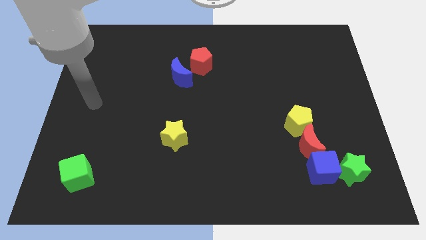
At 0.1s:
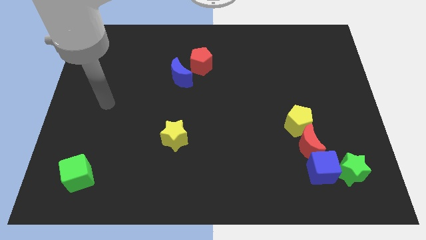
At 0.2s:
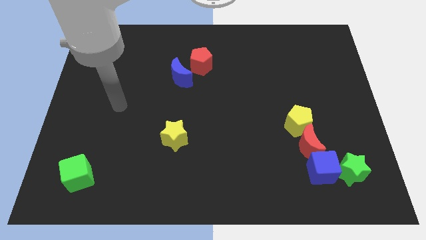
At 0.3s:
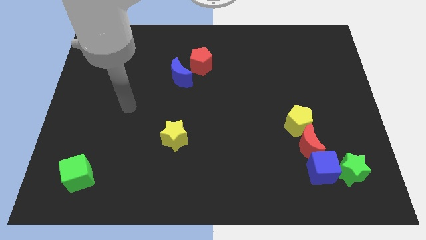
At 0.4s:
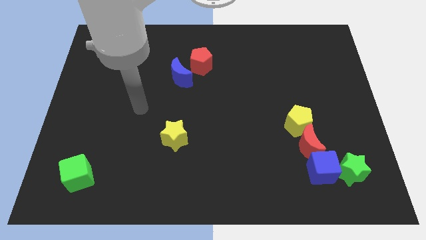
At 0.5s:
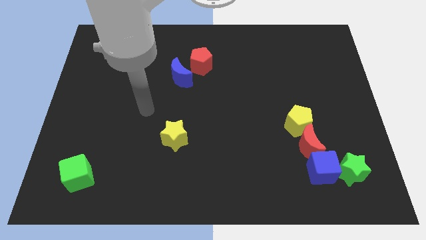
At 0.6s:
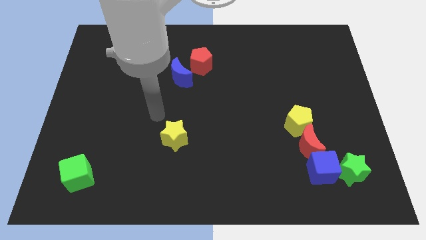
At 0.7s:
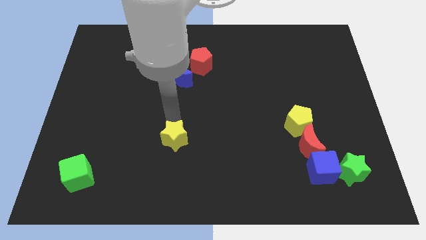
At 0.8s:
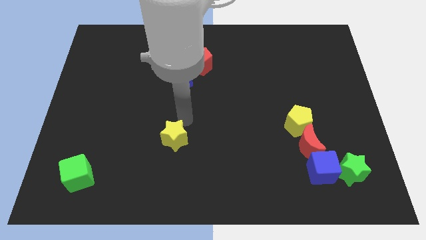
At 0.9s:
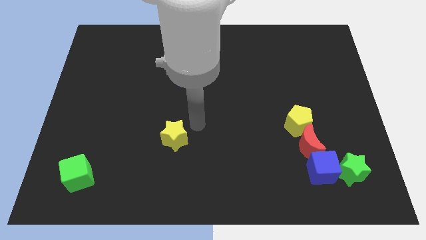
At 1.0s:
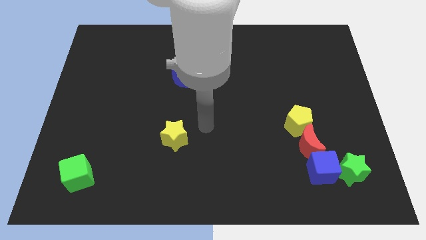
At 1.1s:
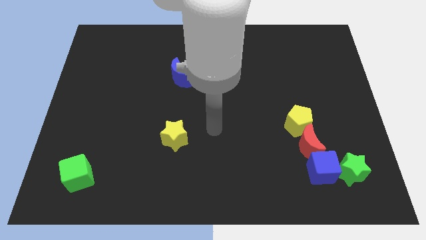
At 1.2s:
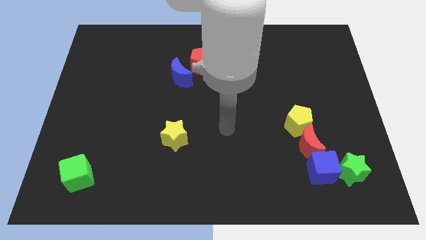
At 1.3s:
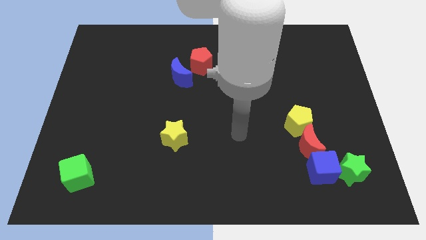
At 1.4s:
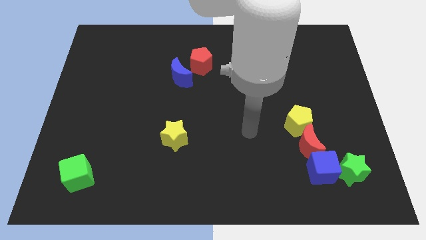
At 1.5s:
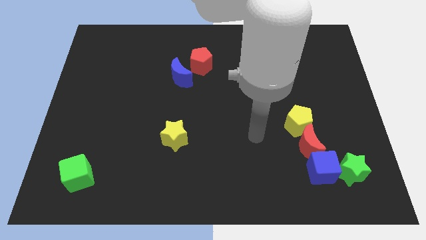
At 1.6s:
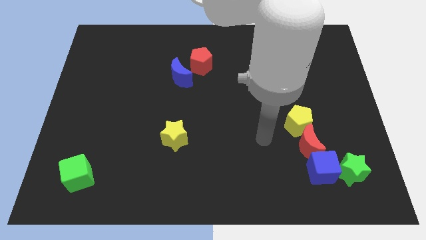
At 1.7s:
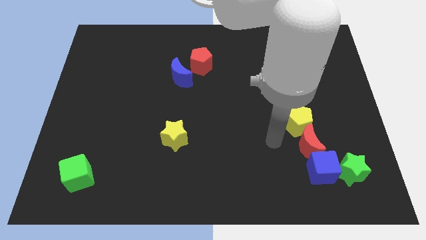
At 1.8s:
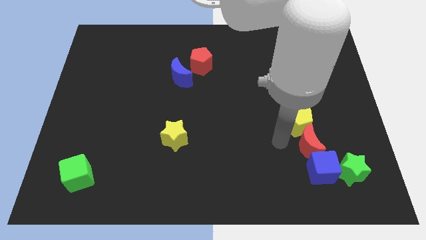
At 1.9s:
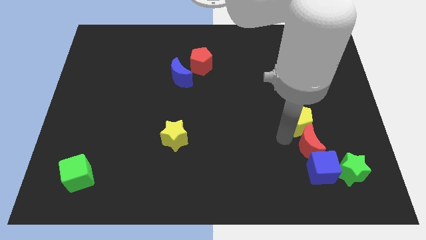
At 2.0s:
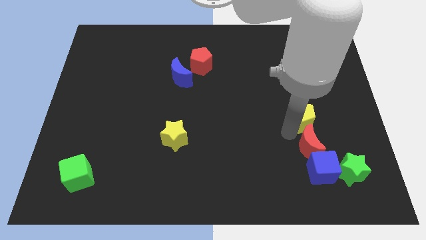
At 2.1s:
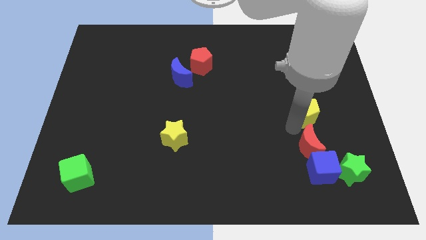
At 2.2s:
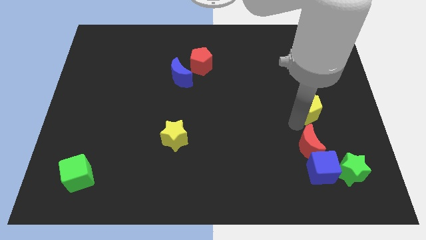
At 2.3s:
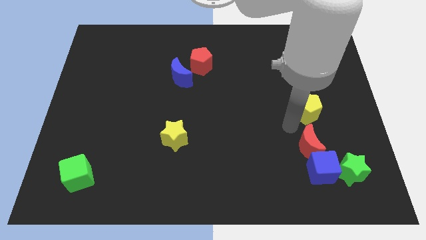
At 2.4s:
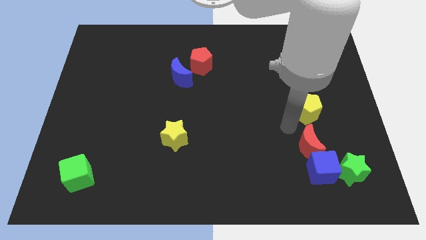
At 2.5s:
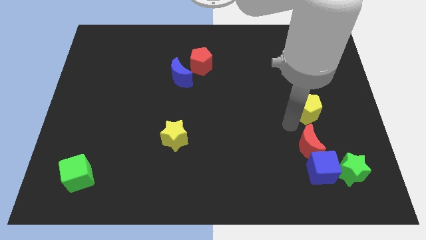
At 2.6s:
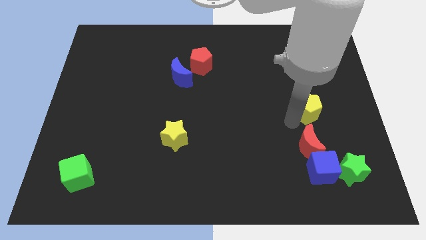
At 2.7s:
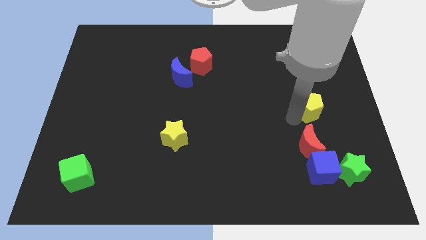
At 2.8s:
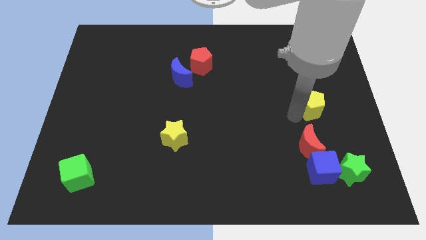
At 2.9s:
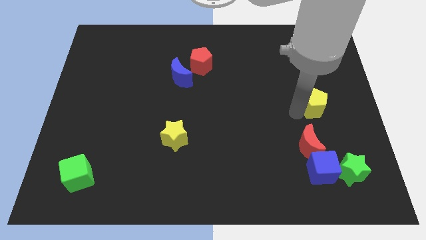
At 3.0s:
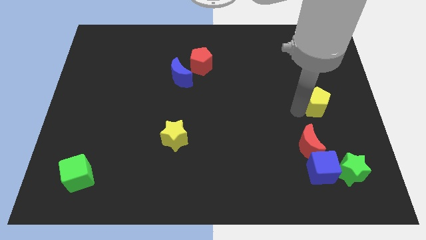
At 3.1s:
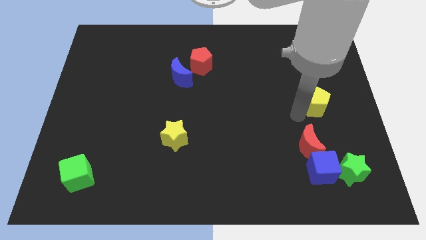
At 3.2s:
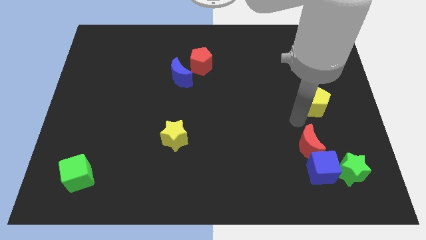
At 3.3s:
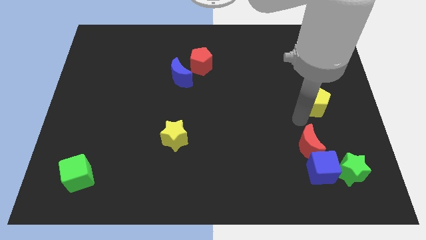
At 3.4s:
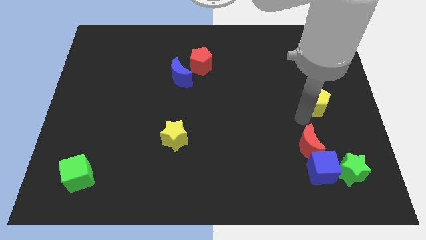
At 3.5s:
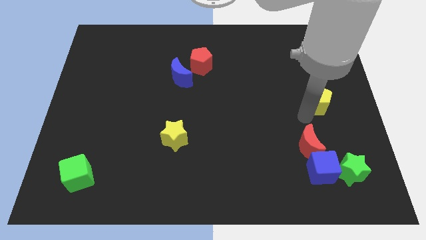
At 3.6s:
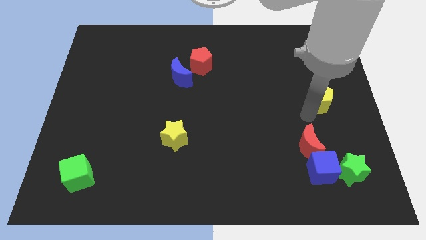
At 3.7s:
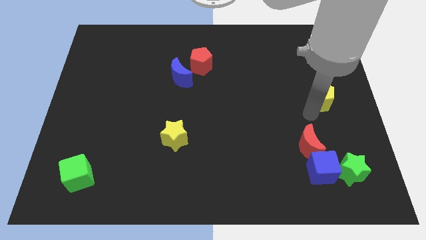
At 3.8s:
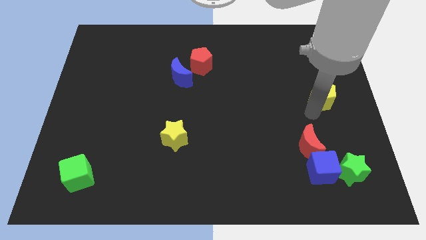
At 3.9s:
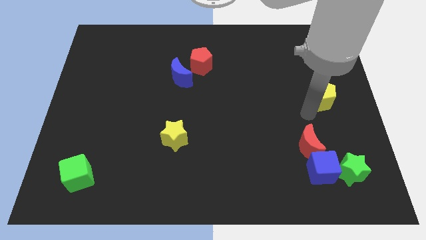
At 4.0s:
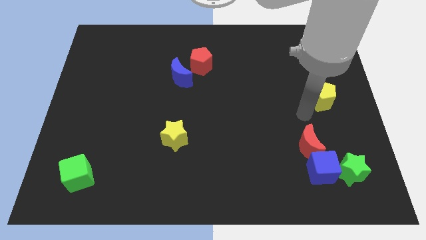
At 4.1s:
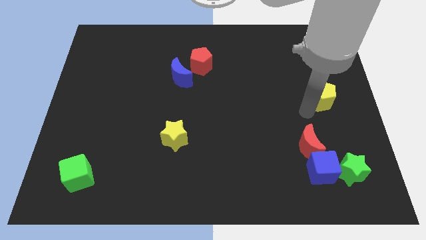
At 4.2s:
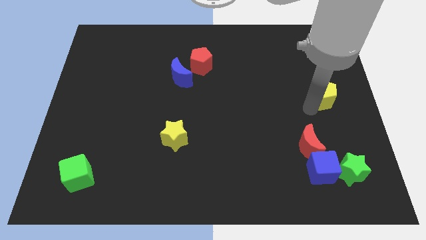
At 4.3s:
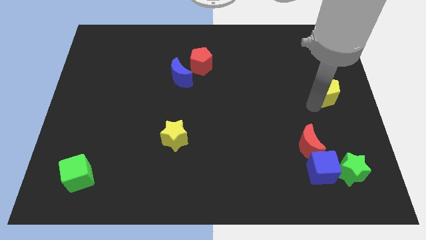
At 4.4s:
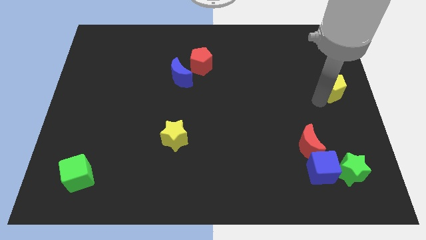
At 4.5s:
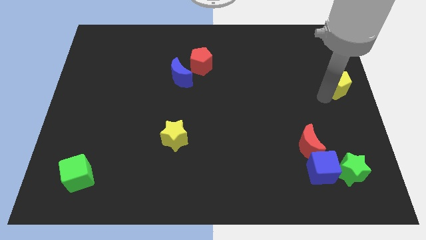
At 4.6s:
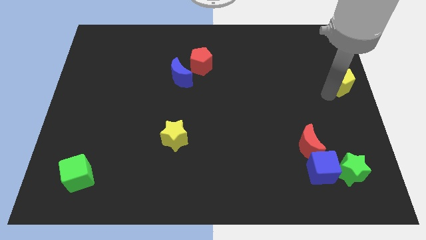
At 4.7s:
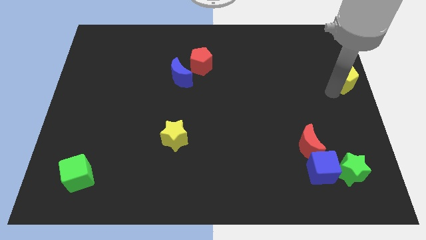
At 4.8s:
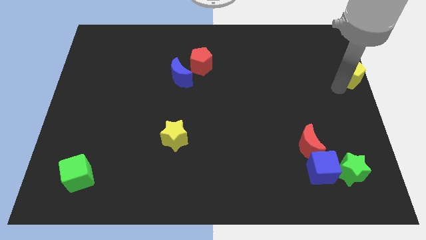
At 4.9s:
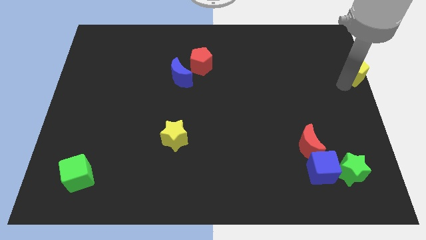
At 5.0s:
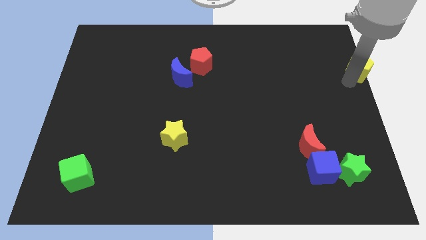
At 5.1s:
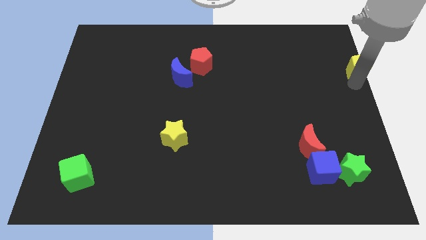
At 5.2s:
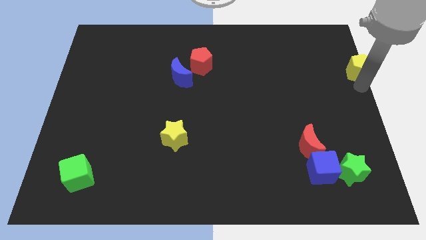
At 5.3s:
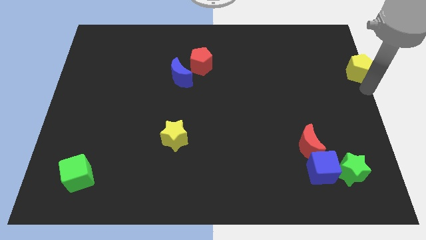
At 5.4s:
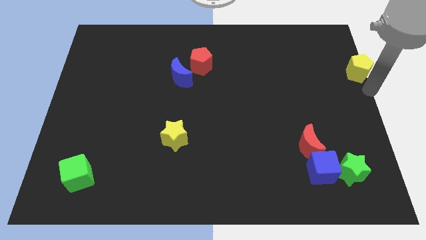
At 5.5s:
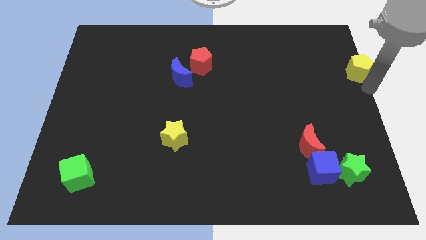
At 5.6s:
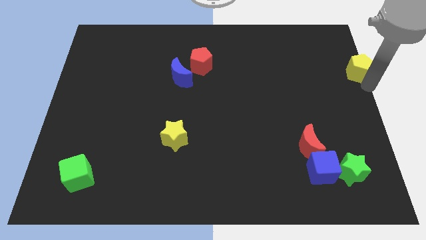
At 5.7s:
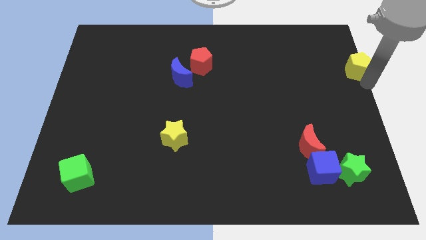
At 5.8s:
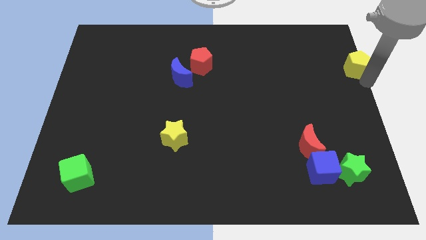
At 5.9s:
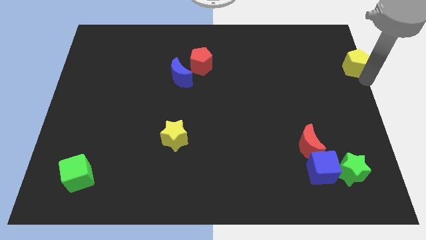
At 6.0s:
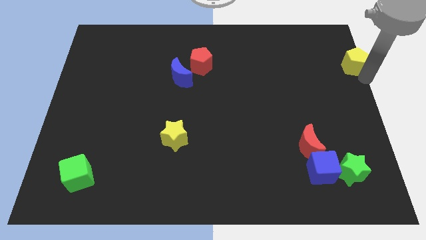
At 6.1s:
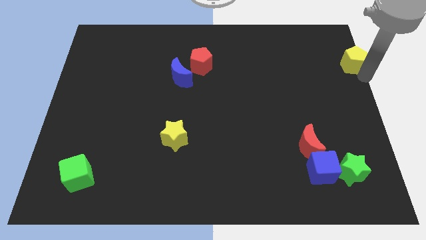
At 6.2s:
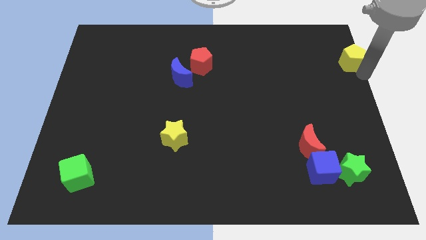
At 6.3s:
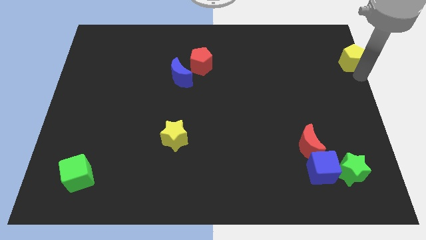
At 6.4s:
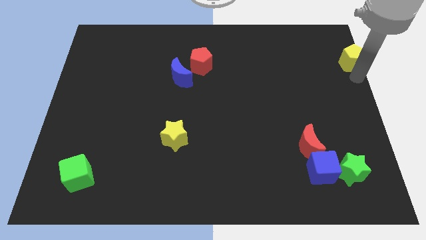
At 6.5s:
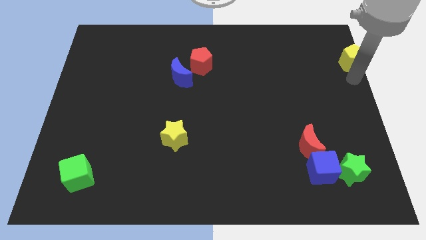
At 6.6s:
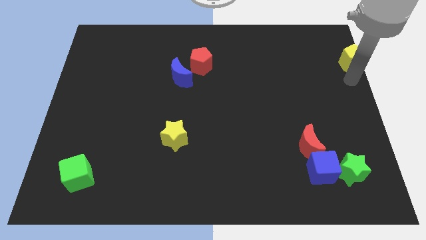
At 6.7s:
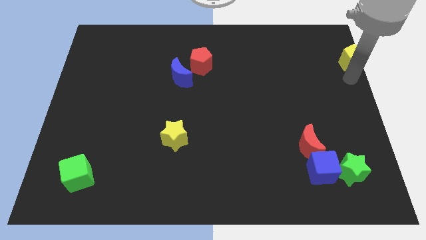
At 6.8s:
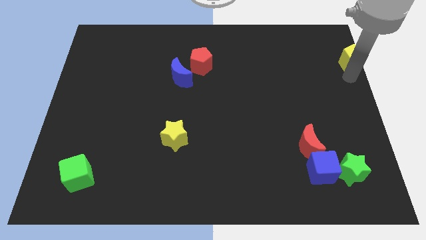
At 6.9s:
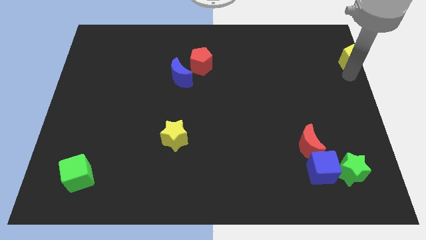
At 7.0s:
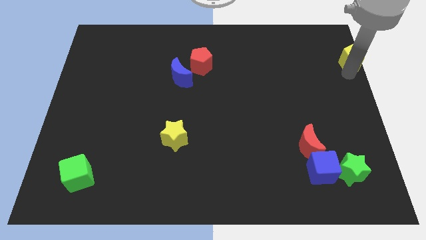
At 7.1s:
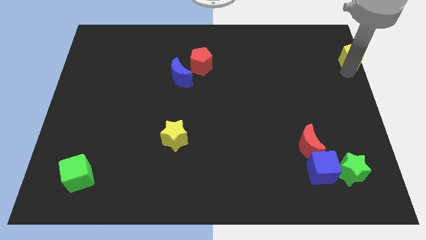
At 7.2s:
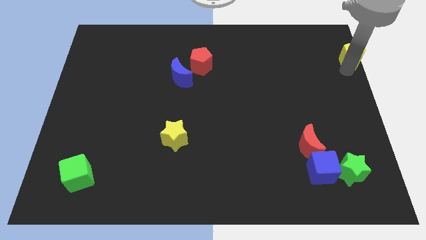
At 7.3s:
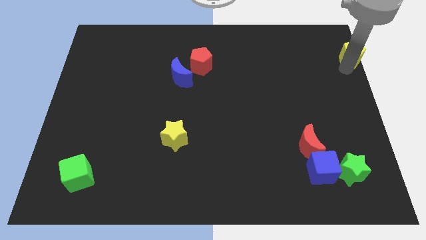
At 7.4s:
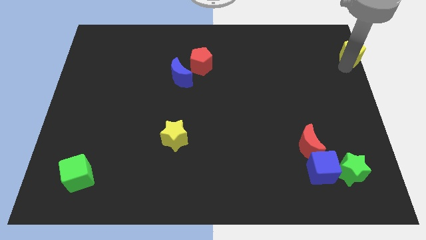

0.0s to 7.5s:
move the yellow pentagon to the top right
